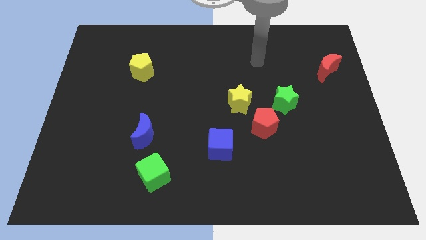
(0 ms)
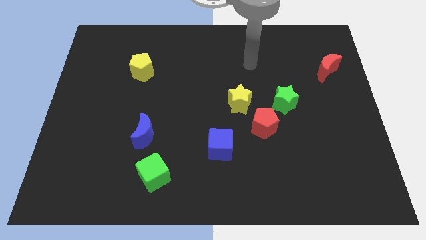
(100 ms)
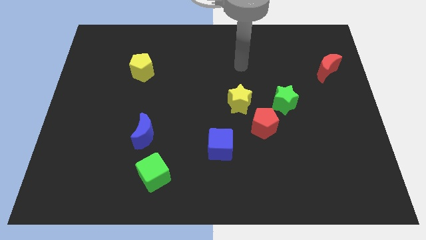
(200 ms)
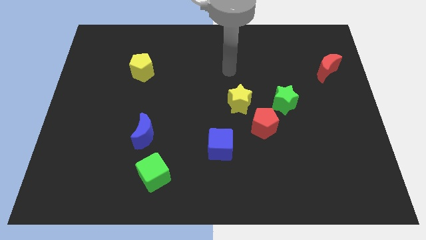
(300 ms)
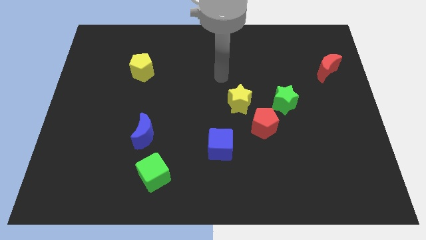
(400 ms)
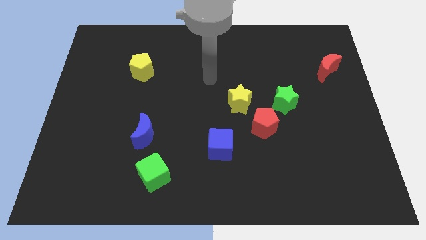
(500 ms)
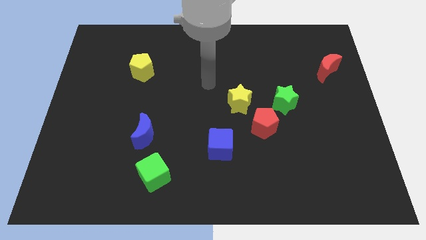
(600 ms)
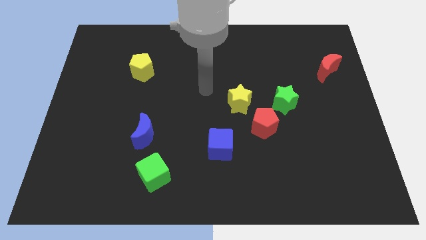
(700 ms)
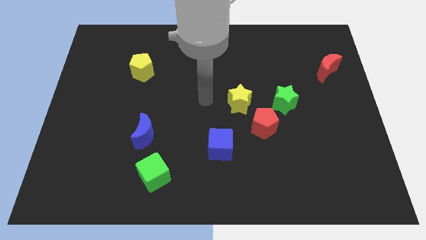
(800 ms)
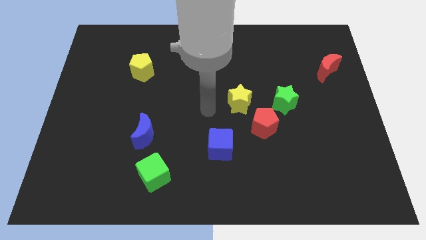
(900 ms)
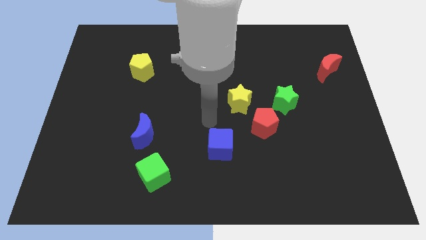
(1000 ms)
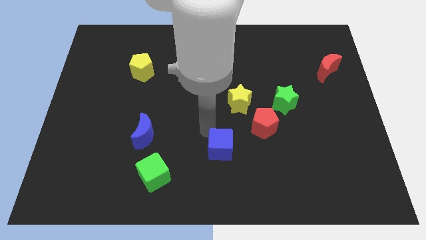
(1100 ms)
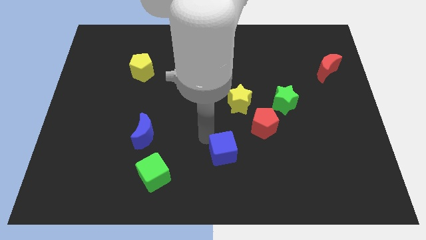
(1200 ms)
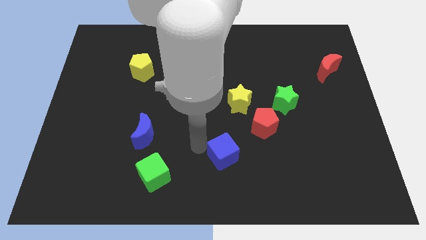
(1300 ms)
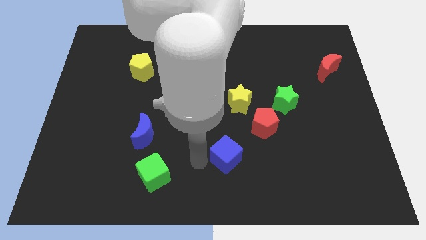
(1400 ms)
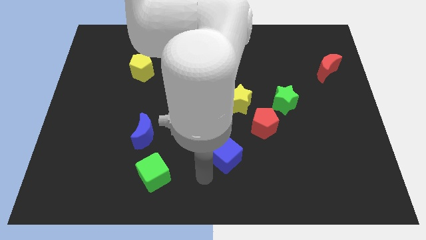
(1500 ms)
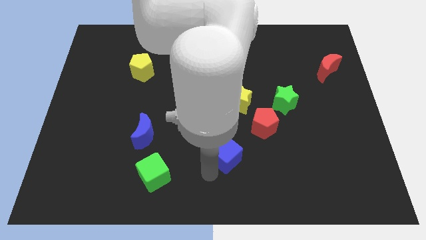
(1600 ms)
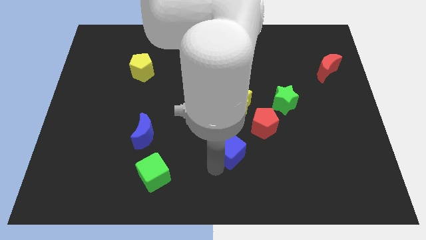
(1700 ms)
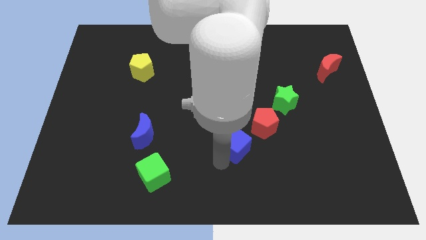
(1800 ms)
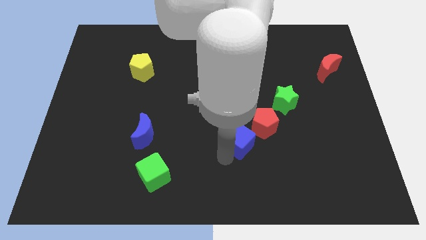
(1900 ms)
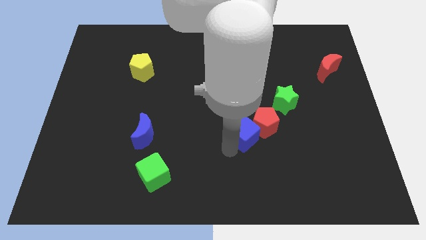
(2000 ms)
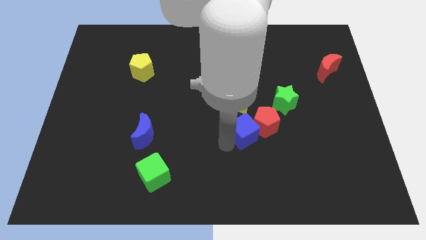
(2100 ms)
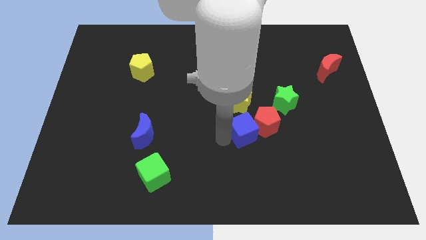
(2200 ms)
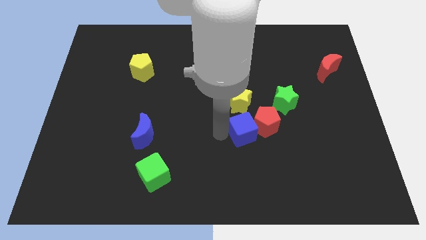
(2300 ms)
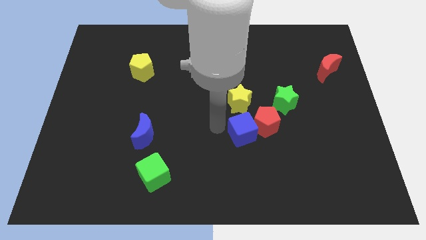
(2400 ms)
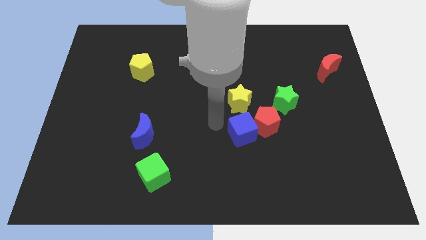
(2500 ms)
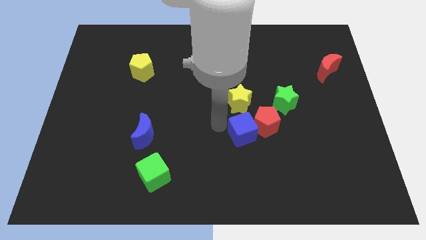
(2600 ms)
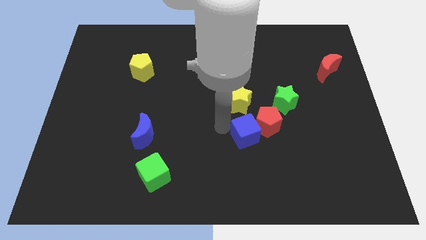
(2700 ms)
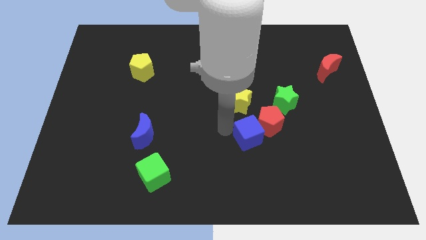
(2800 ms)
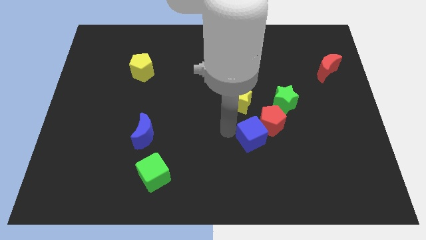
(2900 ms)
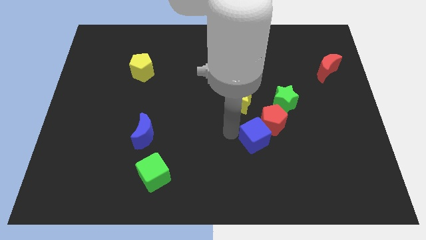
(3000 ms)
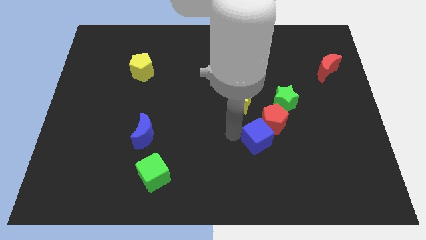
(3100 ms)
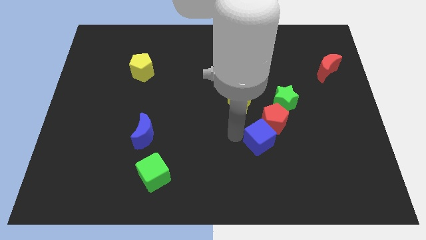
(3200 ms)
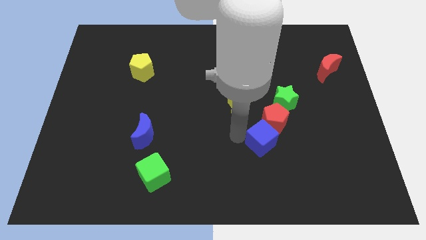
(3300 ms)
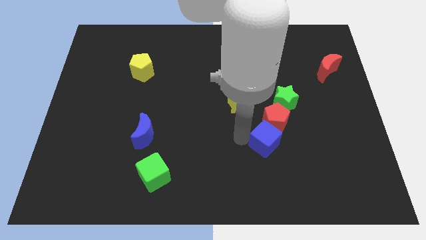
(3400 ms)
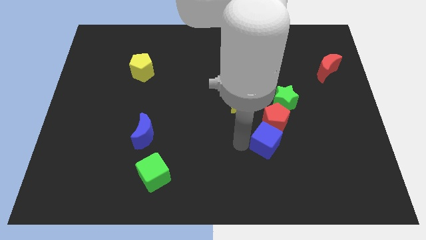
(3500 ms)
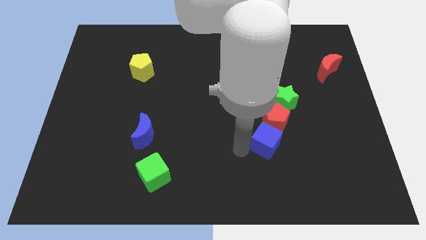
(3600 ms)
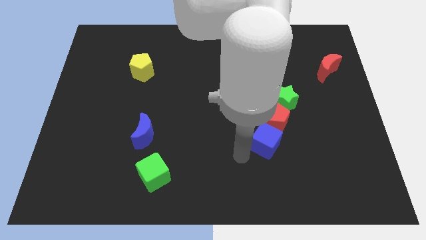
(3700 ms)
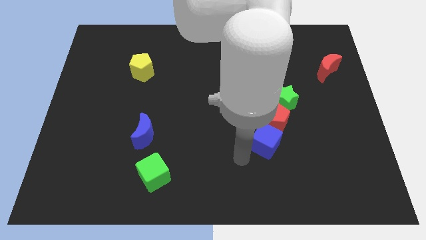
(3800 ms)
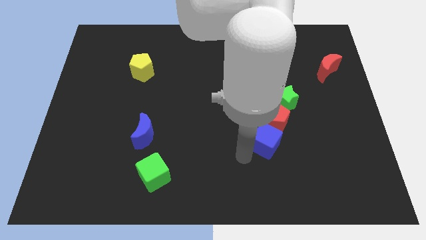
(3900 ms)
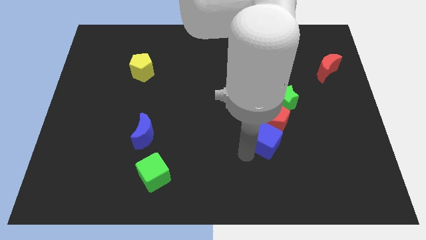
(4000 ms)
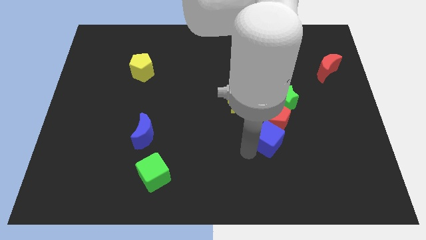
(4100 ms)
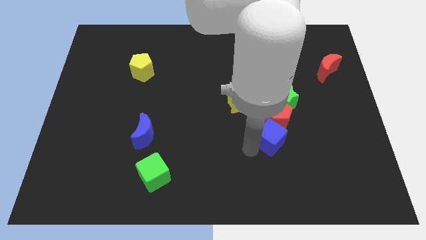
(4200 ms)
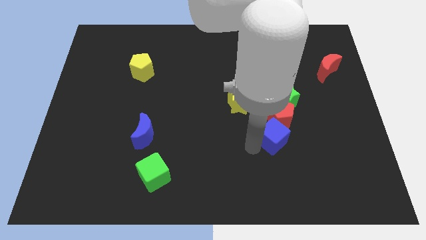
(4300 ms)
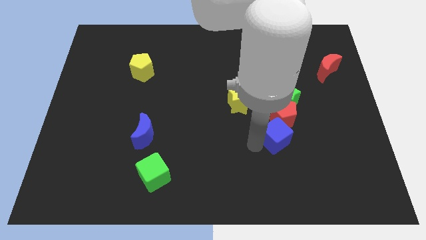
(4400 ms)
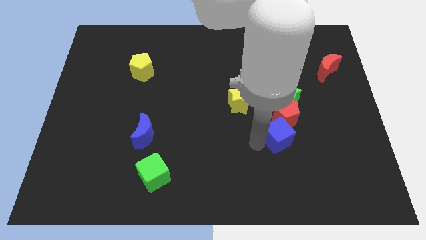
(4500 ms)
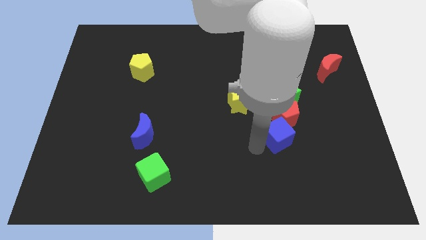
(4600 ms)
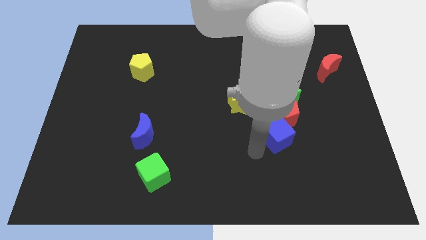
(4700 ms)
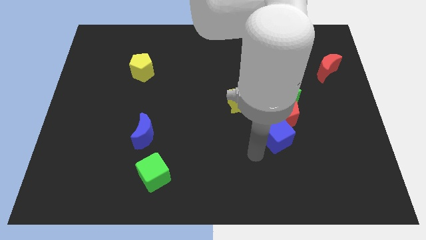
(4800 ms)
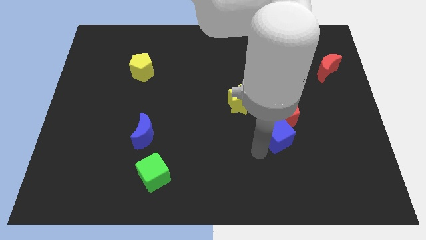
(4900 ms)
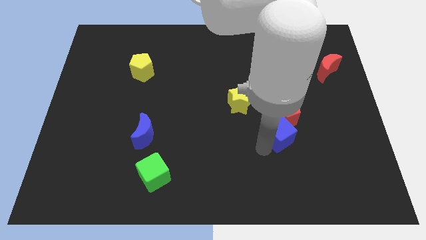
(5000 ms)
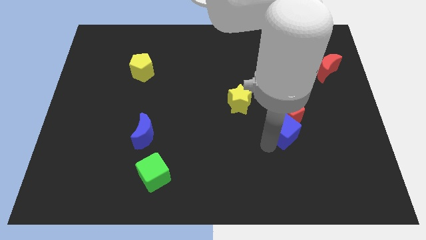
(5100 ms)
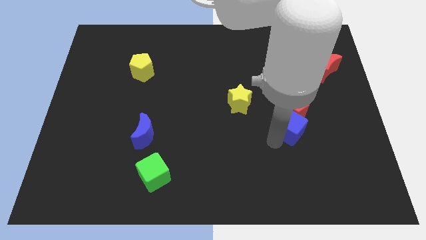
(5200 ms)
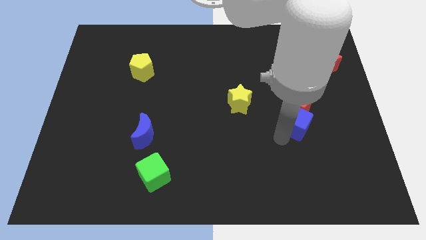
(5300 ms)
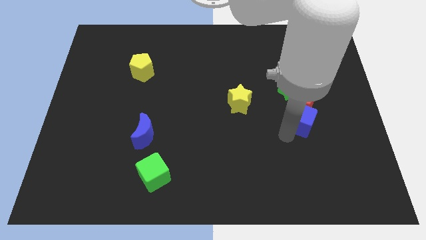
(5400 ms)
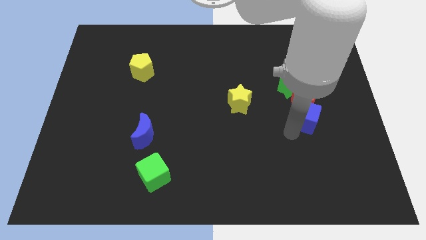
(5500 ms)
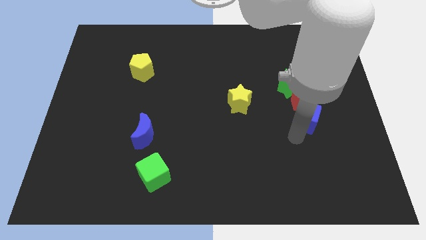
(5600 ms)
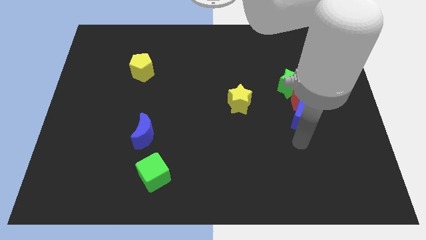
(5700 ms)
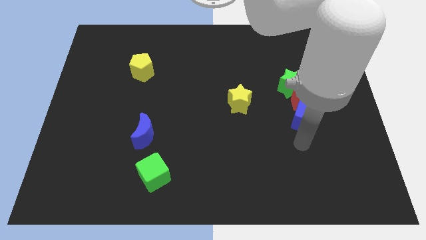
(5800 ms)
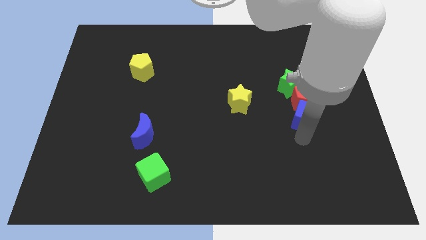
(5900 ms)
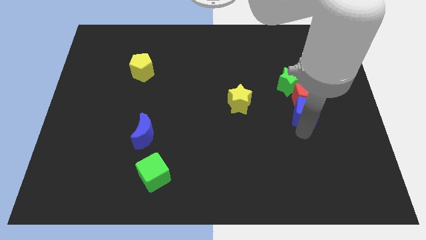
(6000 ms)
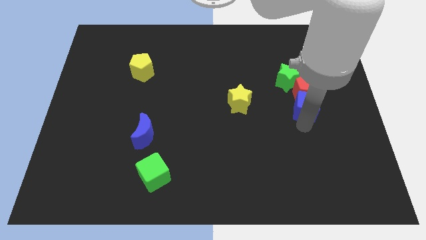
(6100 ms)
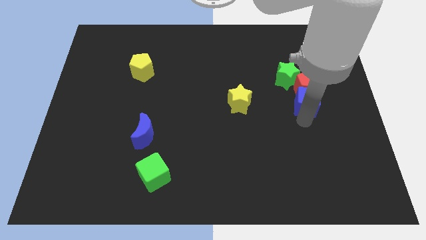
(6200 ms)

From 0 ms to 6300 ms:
move the blue cube upwards and to the right diagonally

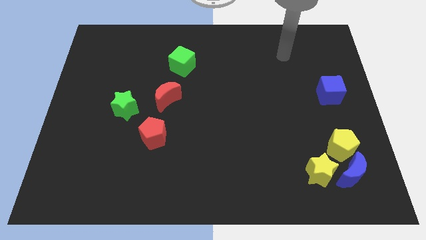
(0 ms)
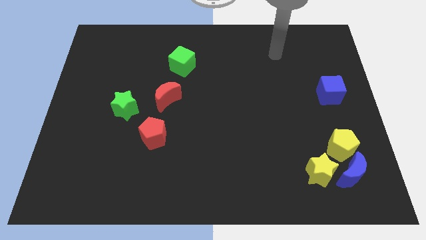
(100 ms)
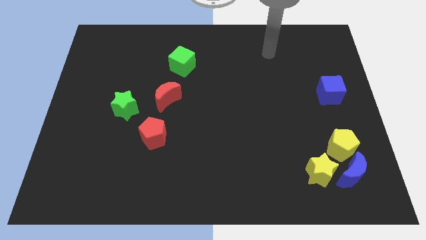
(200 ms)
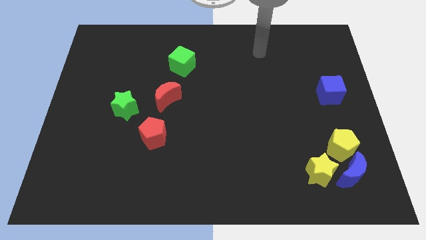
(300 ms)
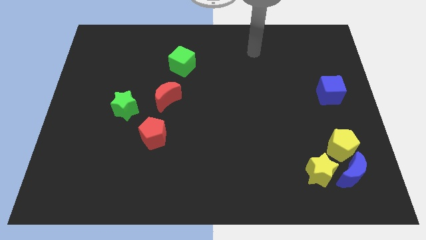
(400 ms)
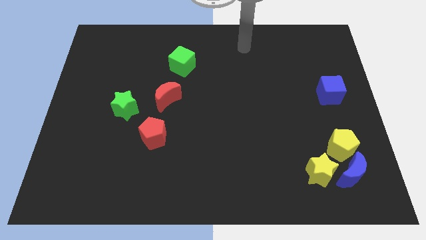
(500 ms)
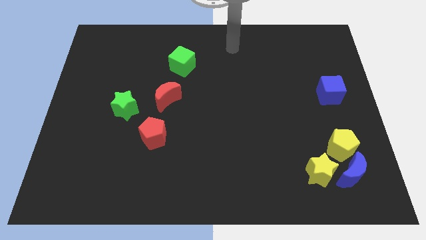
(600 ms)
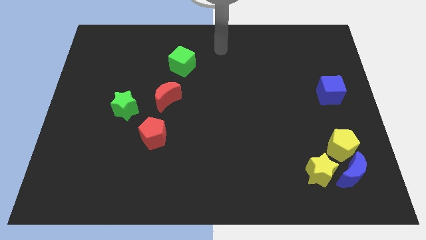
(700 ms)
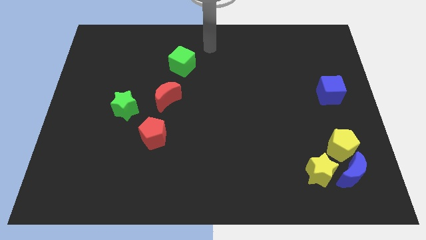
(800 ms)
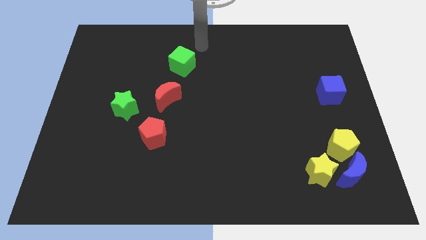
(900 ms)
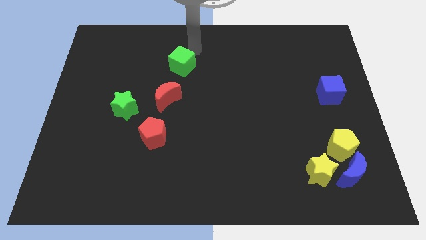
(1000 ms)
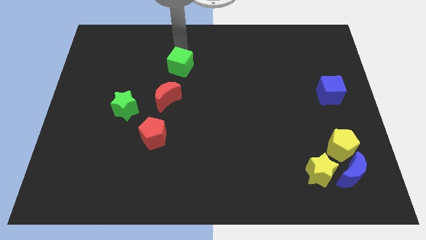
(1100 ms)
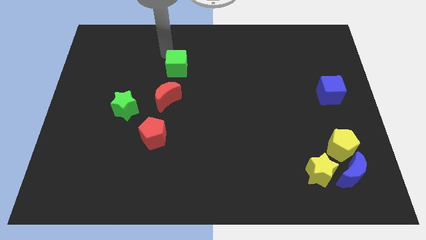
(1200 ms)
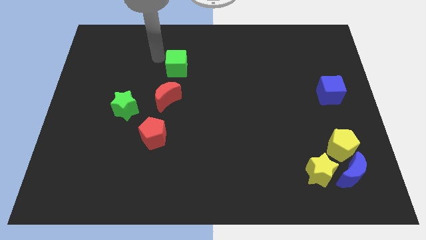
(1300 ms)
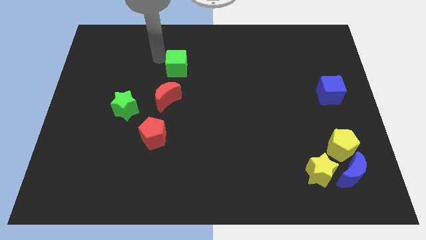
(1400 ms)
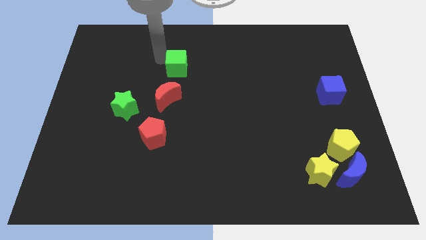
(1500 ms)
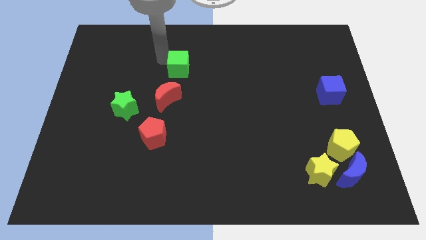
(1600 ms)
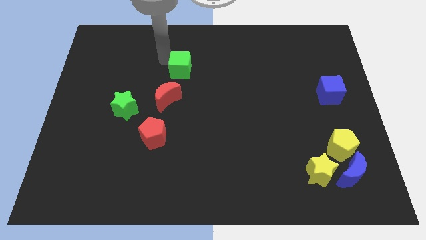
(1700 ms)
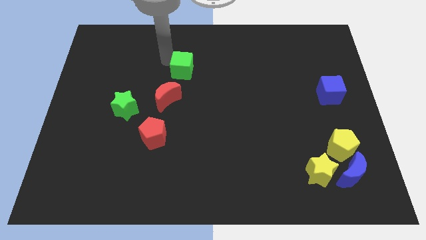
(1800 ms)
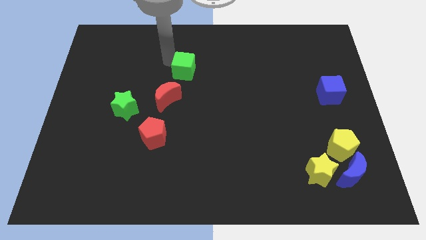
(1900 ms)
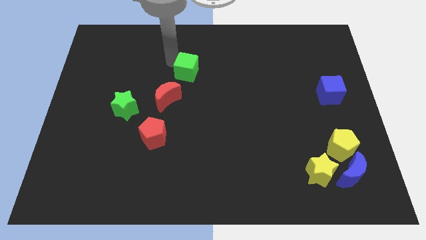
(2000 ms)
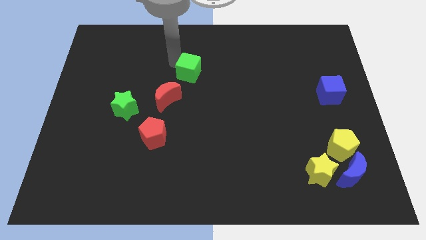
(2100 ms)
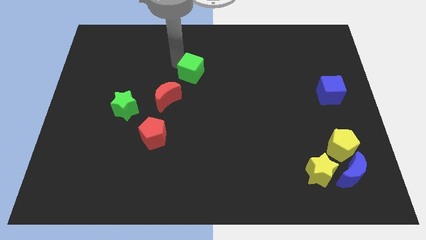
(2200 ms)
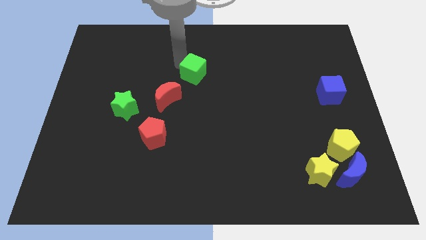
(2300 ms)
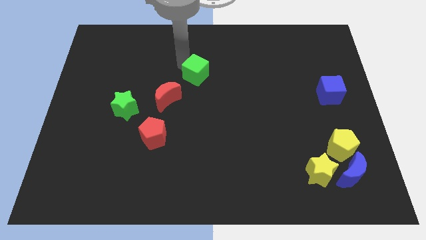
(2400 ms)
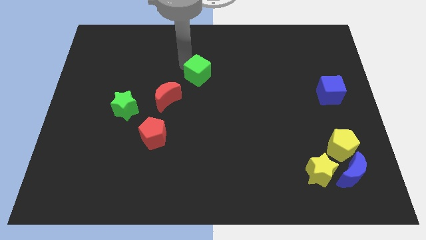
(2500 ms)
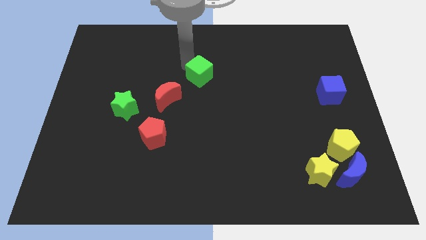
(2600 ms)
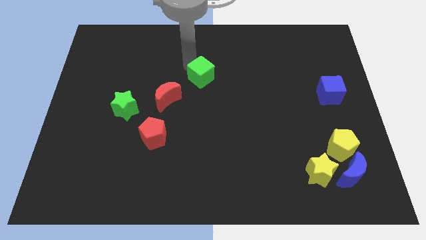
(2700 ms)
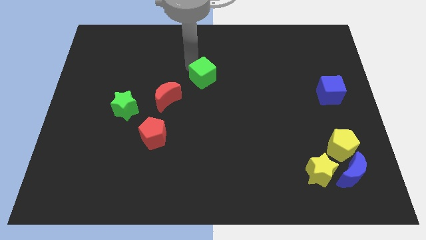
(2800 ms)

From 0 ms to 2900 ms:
push the green cube downwards and right a little bit
